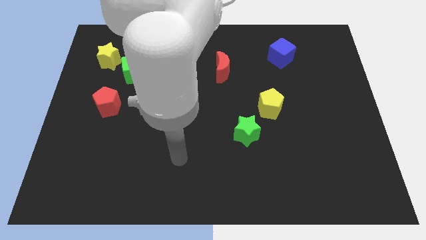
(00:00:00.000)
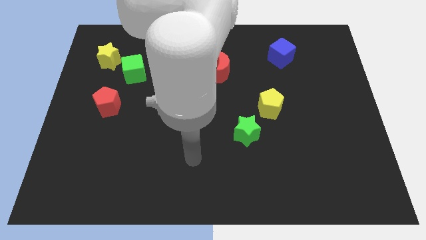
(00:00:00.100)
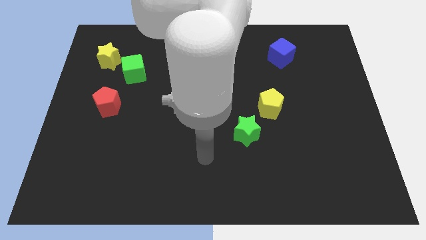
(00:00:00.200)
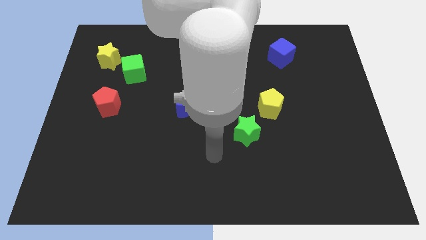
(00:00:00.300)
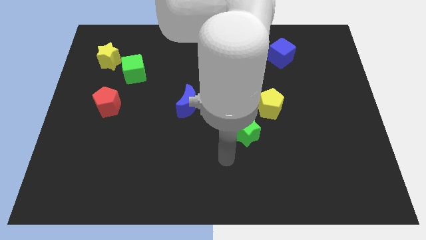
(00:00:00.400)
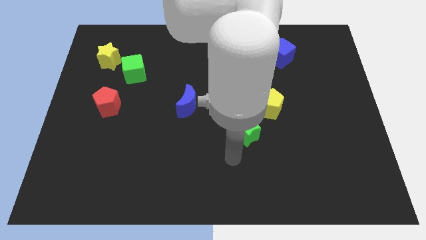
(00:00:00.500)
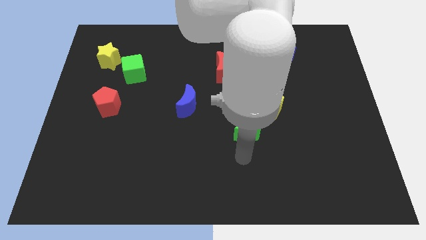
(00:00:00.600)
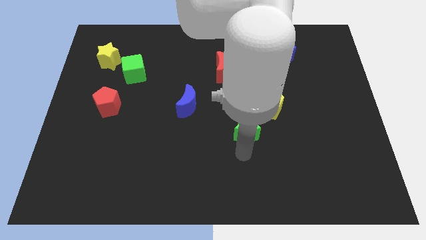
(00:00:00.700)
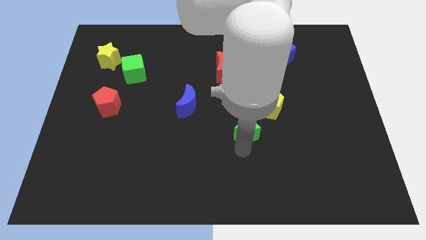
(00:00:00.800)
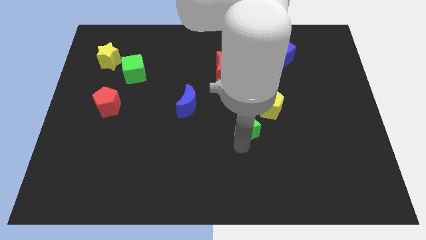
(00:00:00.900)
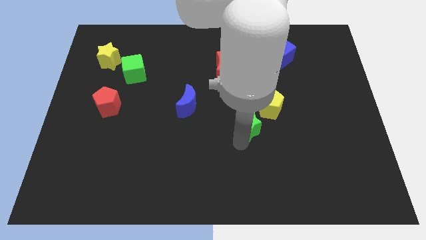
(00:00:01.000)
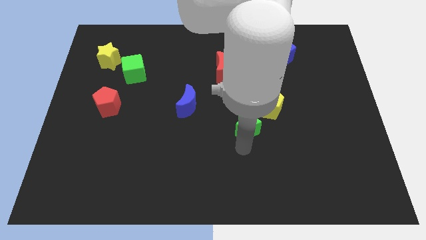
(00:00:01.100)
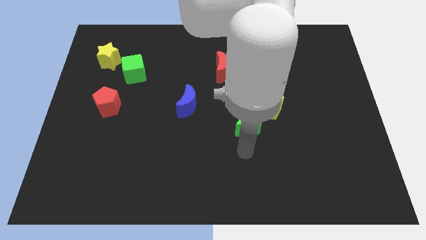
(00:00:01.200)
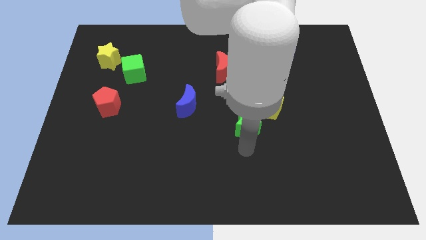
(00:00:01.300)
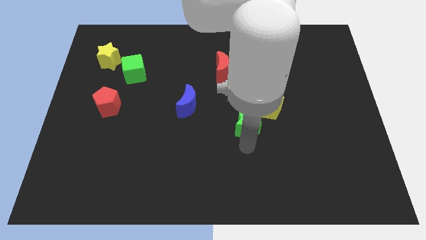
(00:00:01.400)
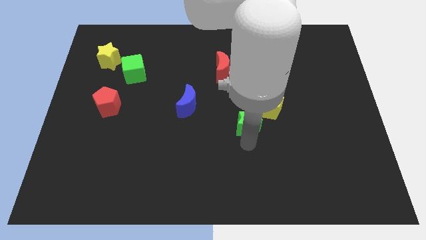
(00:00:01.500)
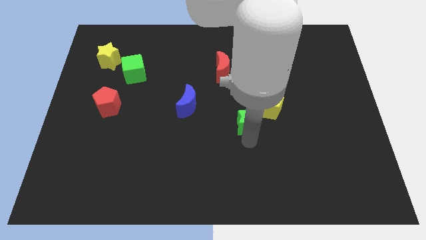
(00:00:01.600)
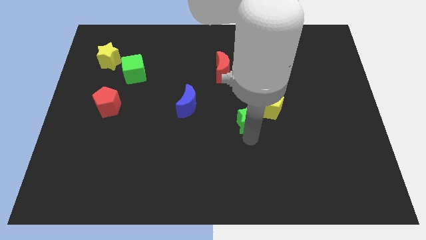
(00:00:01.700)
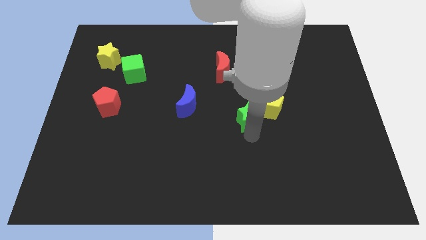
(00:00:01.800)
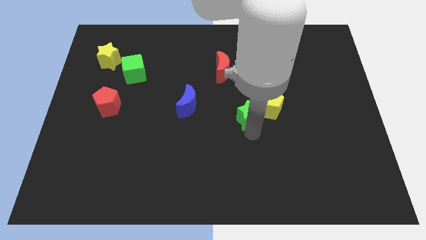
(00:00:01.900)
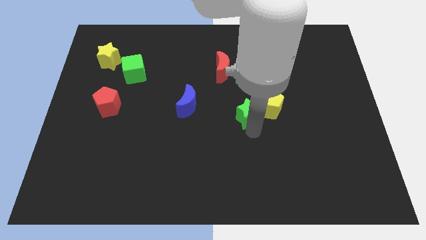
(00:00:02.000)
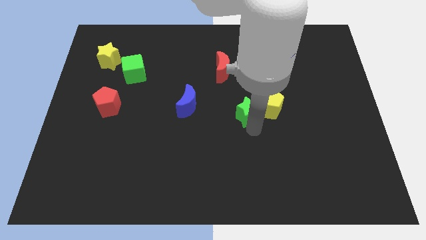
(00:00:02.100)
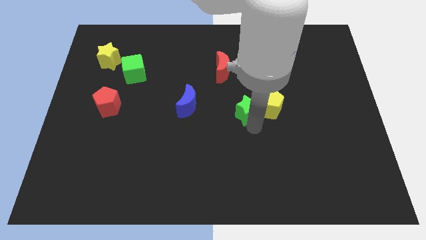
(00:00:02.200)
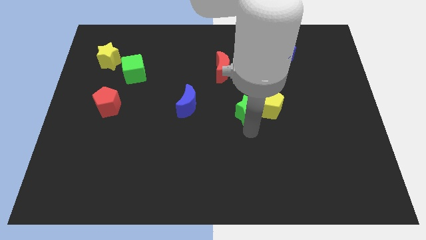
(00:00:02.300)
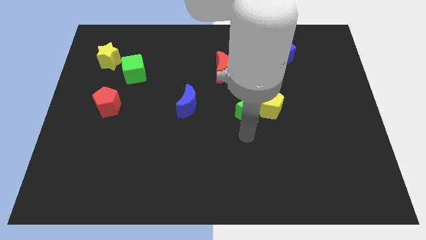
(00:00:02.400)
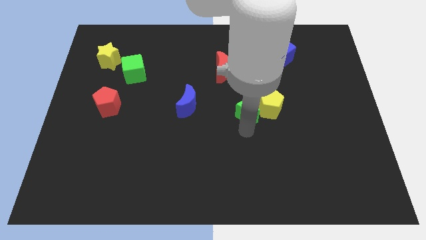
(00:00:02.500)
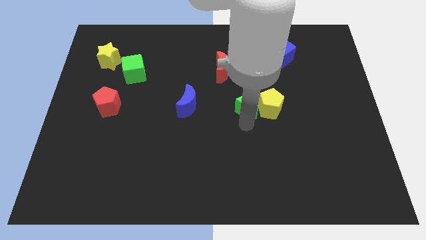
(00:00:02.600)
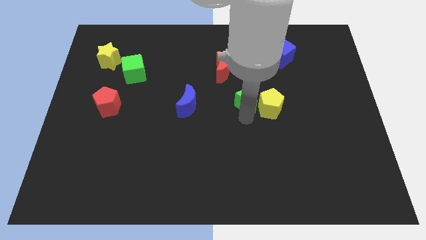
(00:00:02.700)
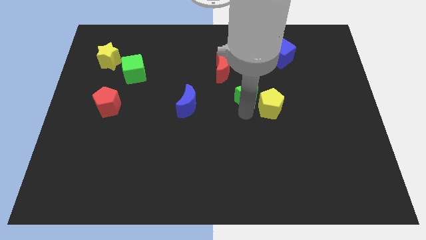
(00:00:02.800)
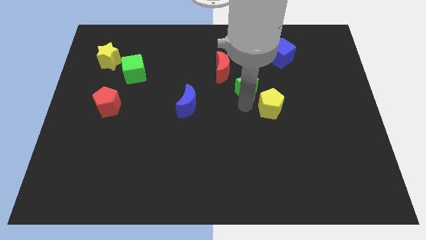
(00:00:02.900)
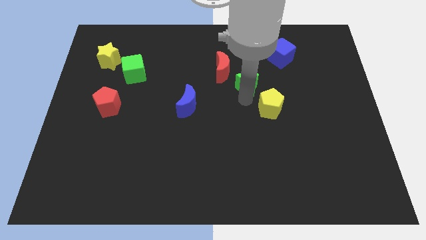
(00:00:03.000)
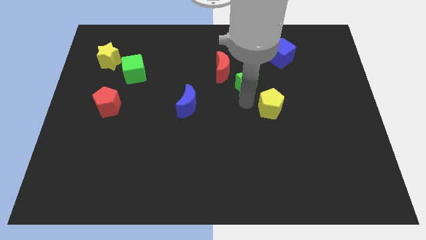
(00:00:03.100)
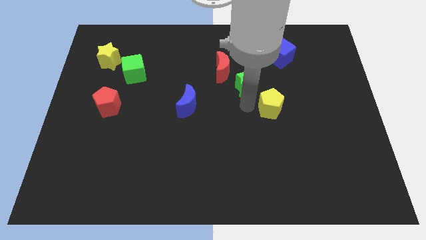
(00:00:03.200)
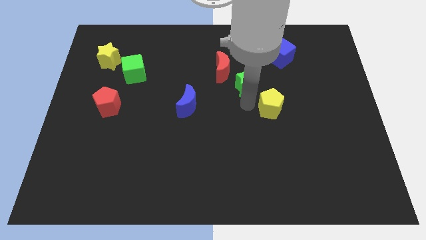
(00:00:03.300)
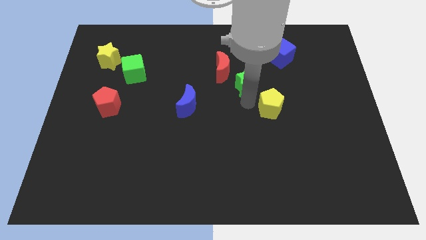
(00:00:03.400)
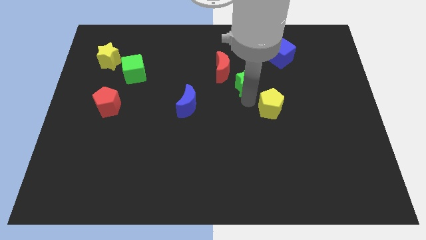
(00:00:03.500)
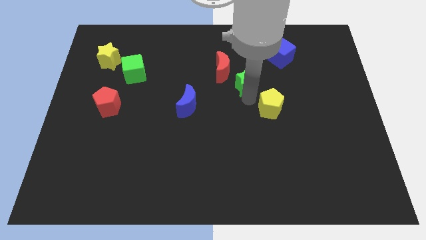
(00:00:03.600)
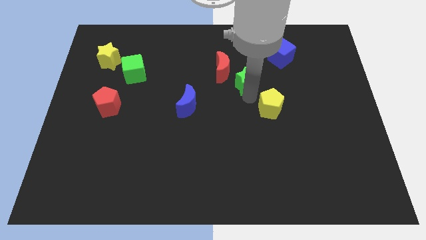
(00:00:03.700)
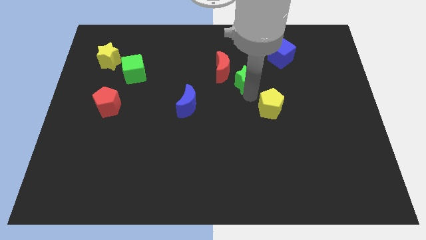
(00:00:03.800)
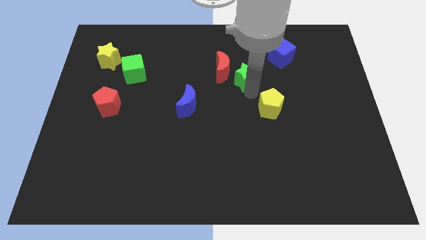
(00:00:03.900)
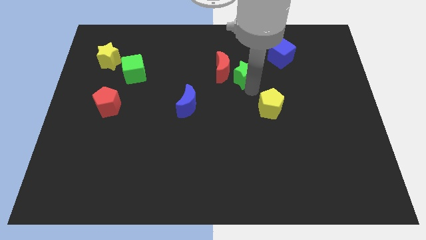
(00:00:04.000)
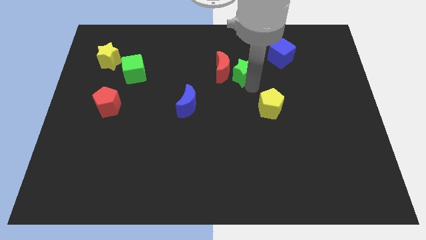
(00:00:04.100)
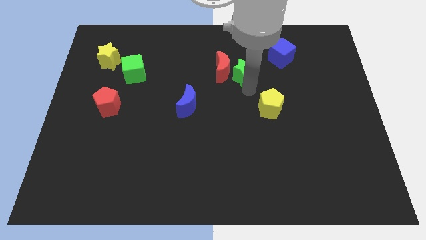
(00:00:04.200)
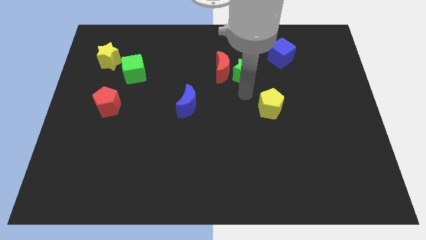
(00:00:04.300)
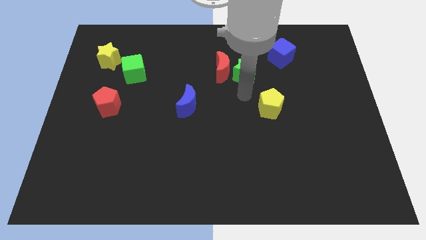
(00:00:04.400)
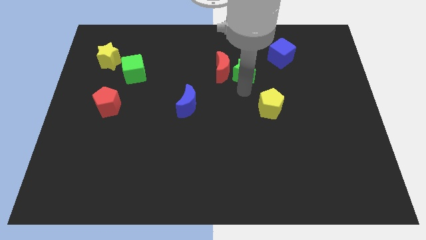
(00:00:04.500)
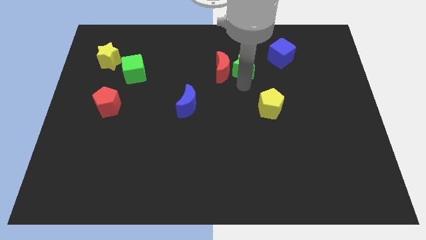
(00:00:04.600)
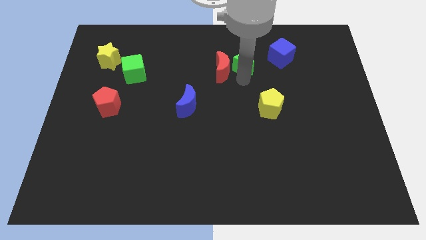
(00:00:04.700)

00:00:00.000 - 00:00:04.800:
move the green star left of the blue cube

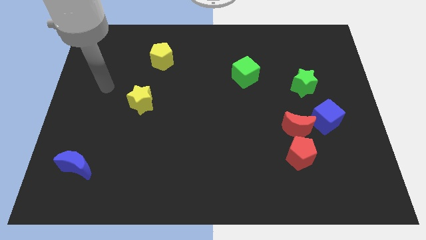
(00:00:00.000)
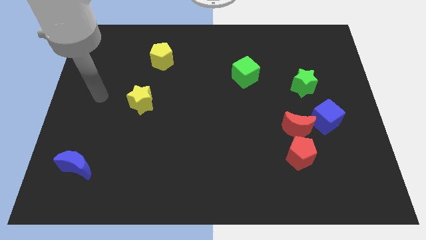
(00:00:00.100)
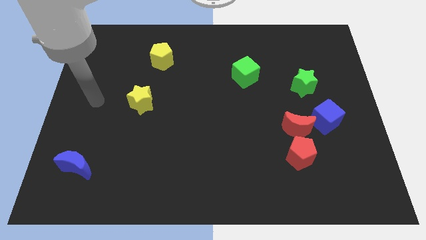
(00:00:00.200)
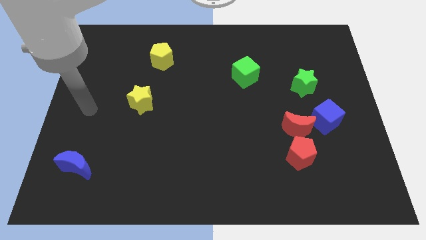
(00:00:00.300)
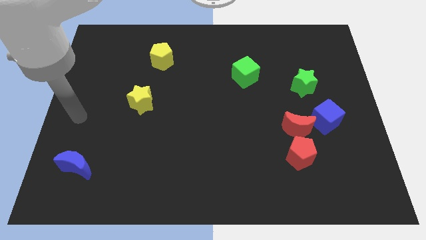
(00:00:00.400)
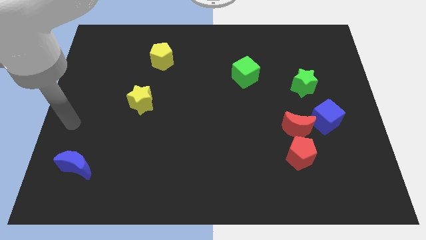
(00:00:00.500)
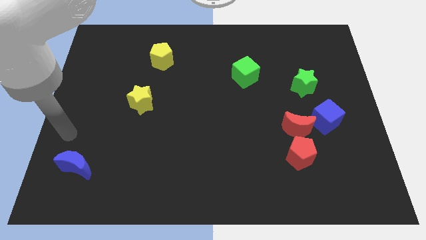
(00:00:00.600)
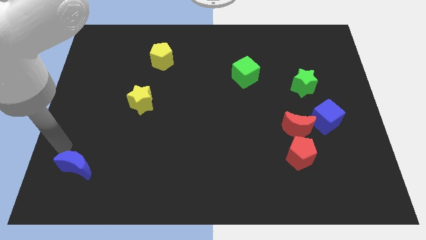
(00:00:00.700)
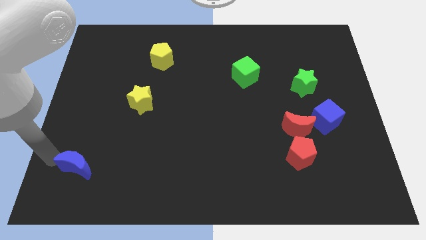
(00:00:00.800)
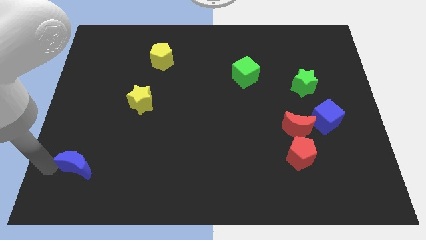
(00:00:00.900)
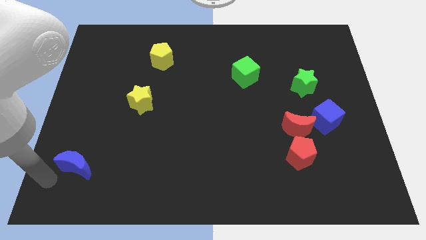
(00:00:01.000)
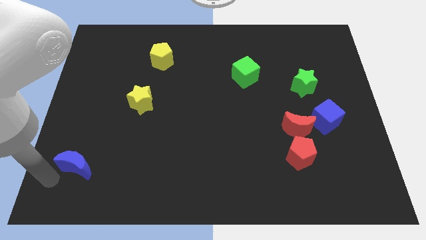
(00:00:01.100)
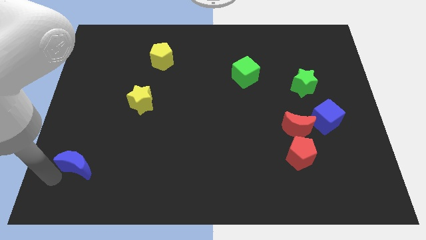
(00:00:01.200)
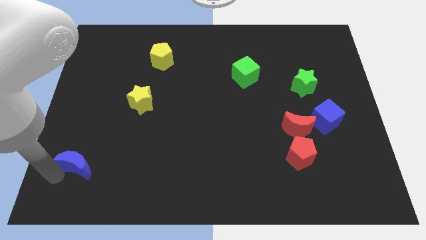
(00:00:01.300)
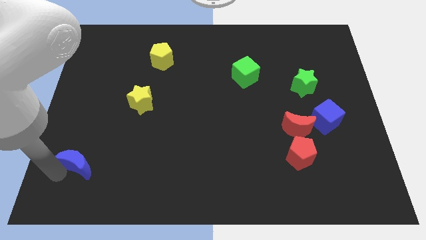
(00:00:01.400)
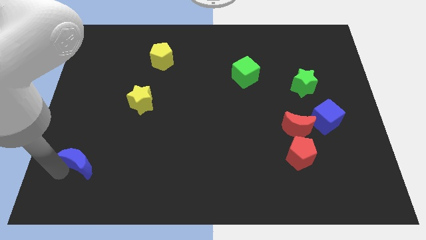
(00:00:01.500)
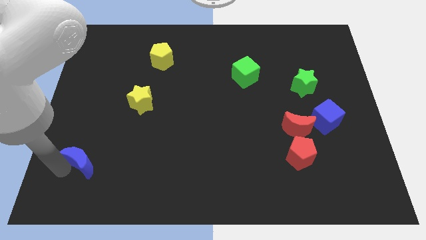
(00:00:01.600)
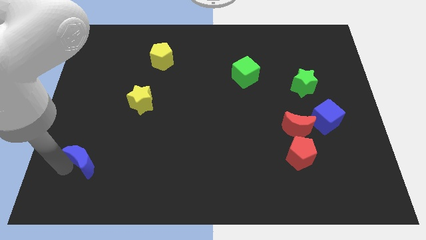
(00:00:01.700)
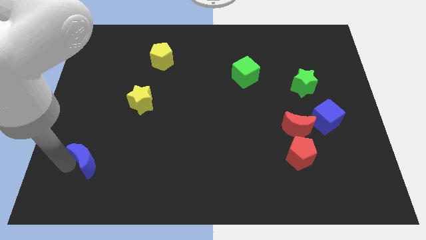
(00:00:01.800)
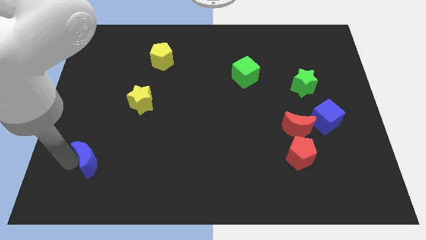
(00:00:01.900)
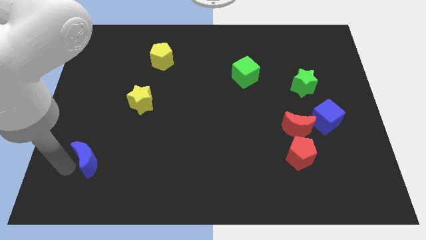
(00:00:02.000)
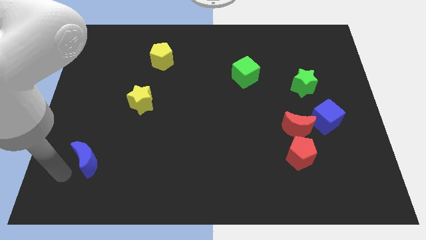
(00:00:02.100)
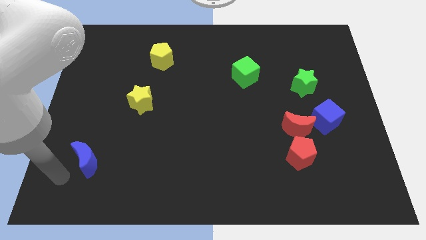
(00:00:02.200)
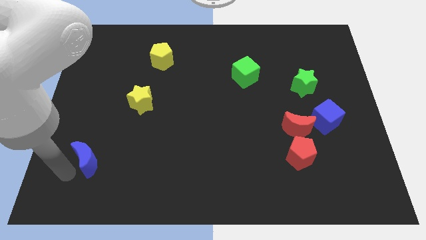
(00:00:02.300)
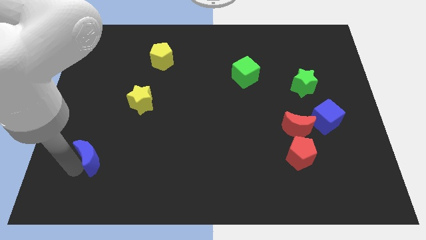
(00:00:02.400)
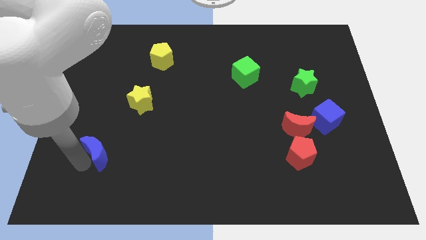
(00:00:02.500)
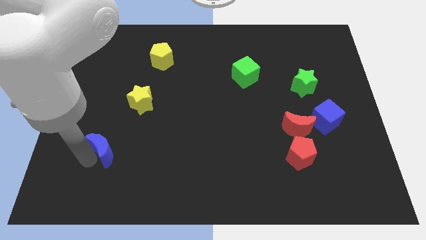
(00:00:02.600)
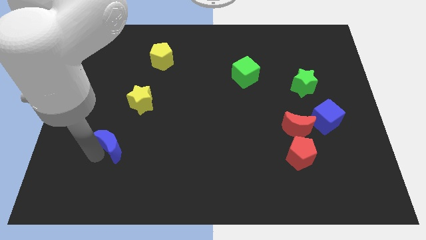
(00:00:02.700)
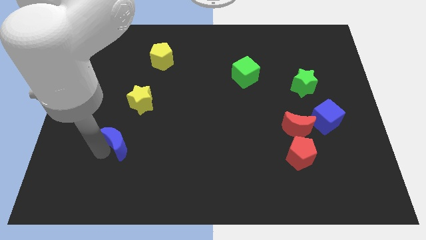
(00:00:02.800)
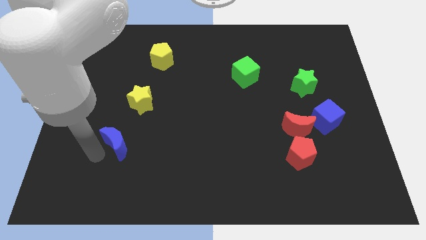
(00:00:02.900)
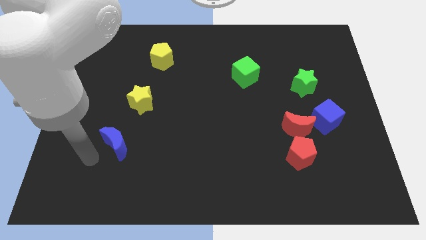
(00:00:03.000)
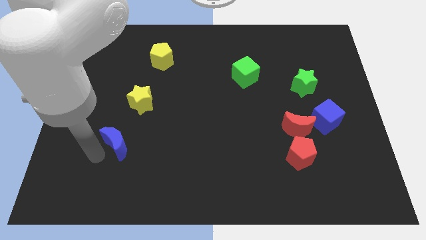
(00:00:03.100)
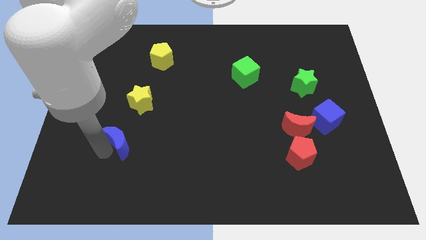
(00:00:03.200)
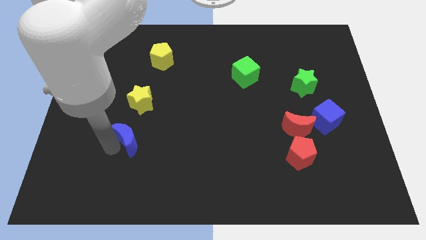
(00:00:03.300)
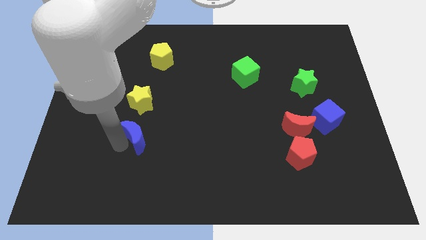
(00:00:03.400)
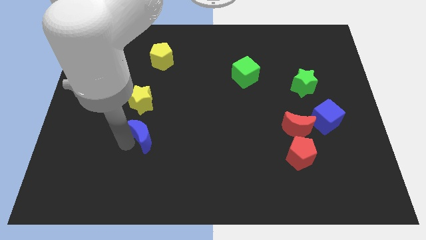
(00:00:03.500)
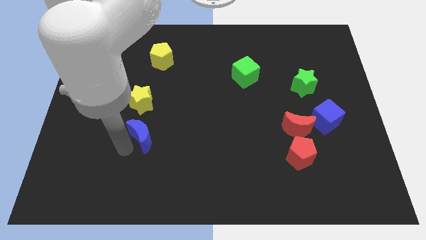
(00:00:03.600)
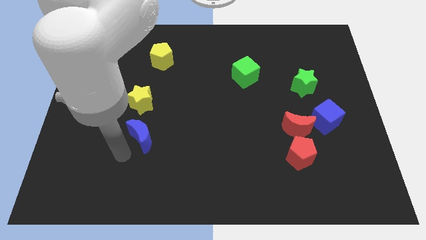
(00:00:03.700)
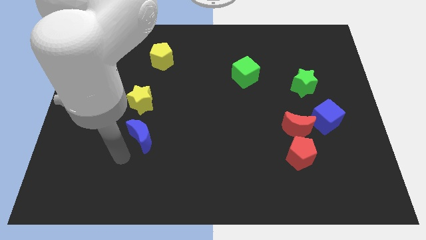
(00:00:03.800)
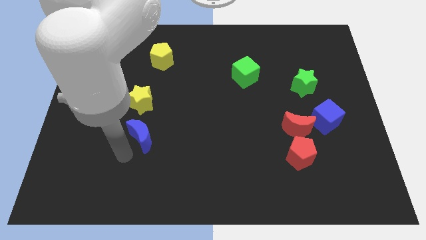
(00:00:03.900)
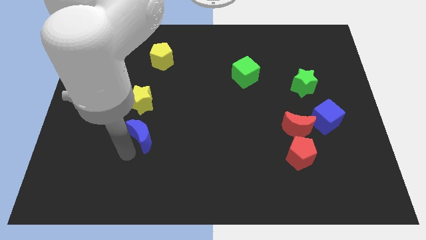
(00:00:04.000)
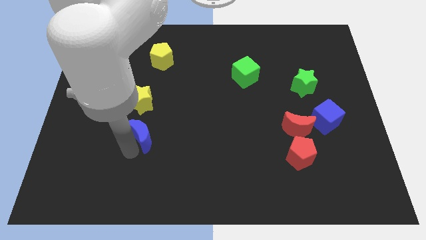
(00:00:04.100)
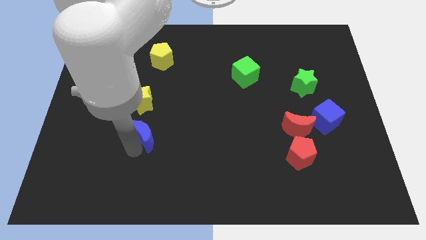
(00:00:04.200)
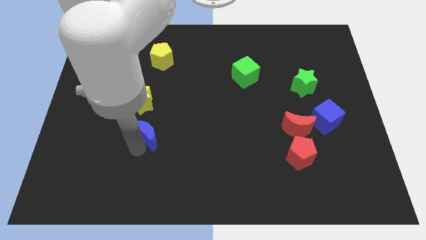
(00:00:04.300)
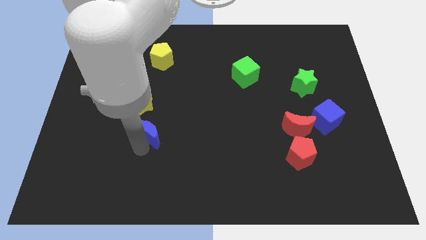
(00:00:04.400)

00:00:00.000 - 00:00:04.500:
move the blue moon to the bottom right of the yellow star
